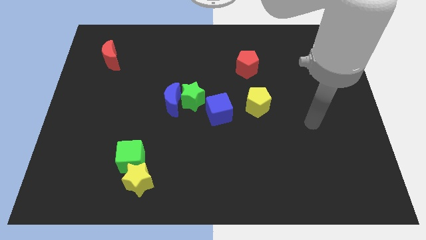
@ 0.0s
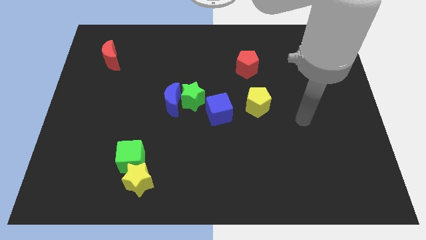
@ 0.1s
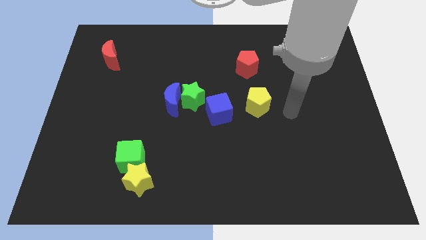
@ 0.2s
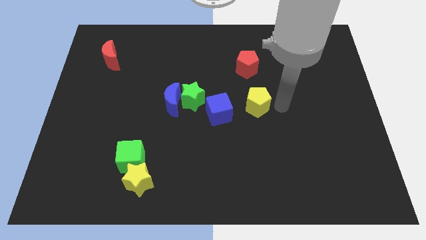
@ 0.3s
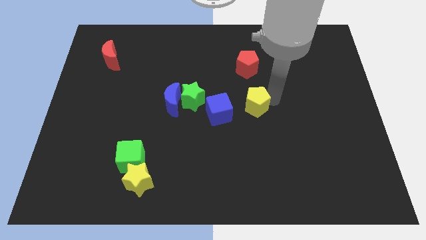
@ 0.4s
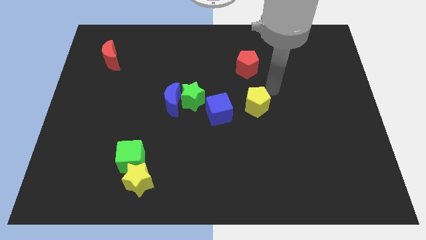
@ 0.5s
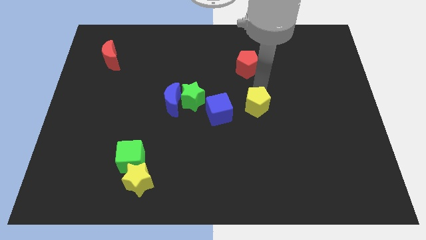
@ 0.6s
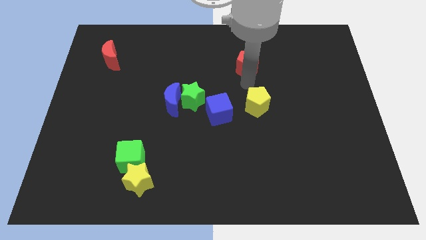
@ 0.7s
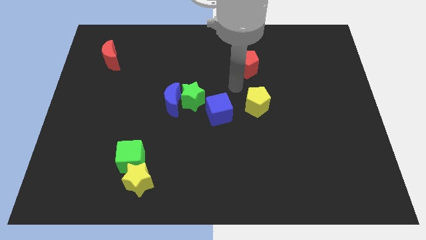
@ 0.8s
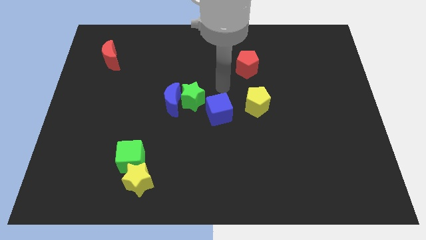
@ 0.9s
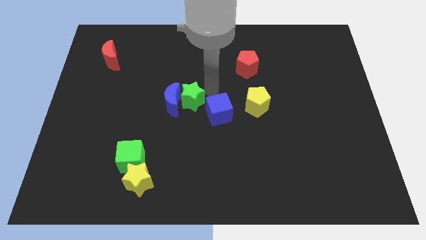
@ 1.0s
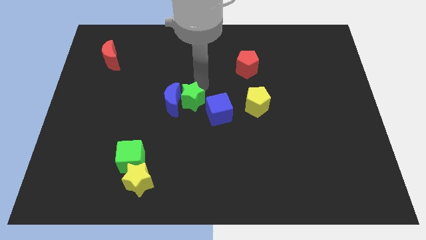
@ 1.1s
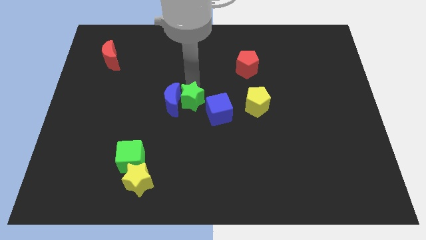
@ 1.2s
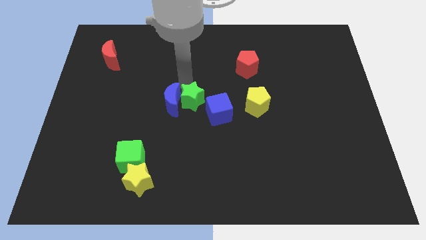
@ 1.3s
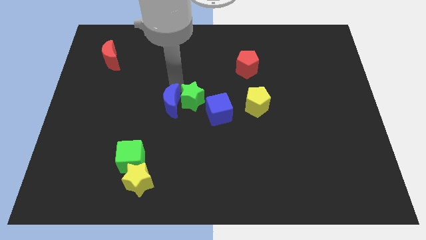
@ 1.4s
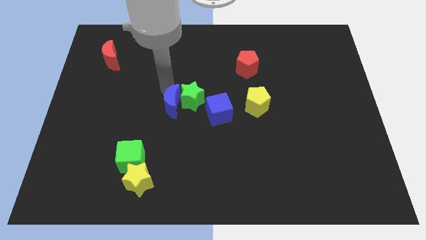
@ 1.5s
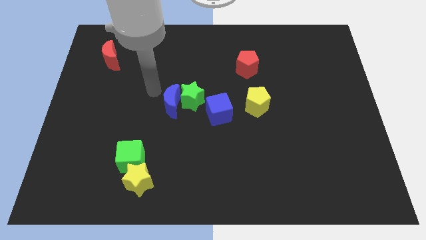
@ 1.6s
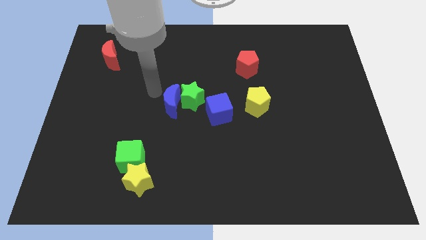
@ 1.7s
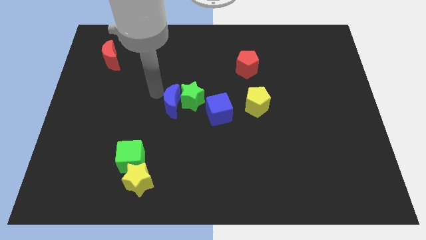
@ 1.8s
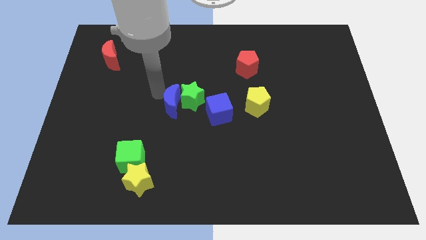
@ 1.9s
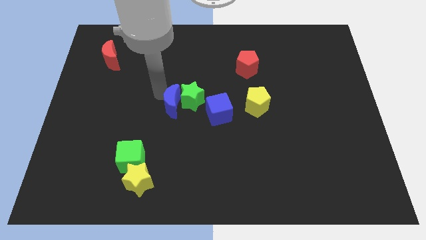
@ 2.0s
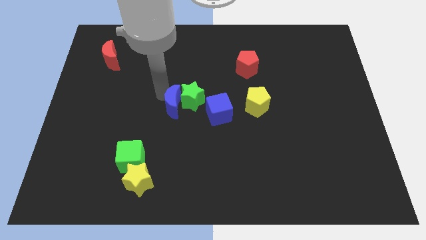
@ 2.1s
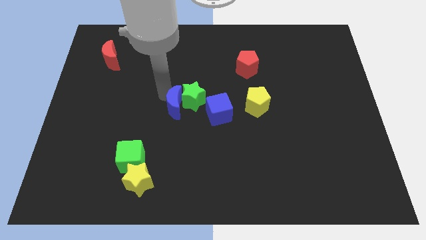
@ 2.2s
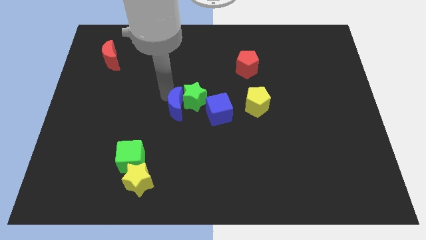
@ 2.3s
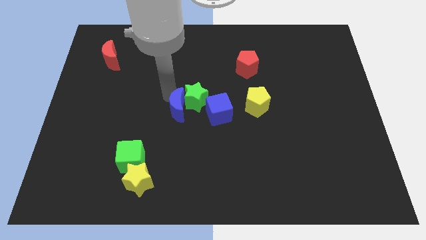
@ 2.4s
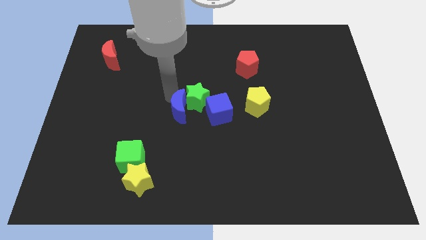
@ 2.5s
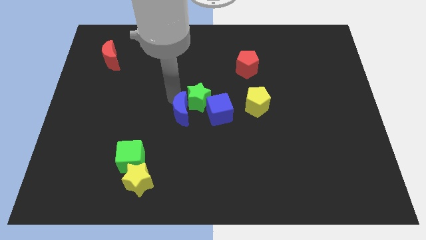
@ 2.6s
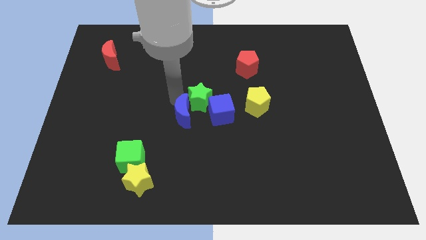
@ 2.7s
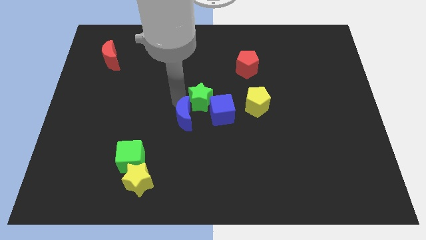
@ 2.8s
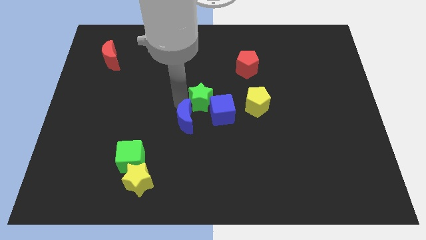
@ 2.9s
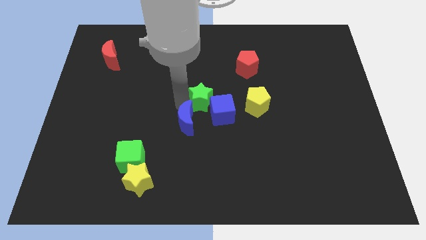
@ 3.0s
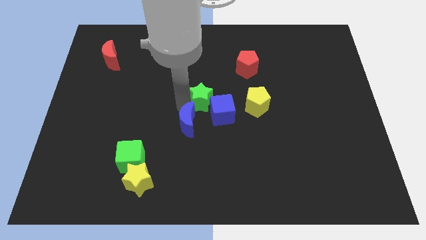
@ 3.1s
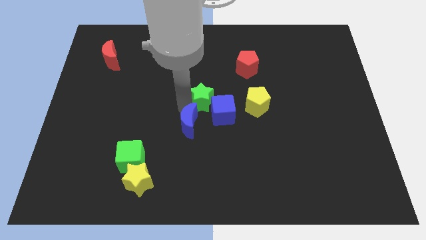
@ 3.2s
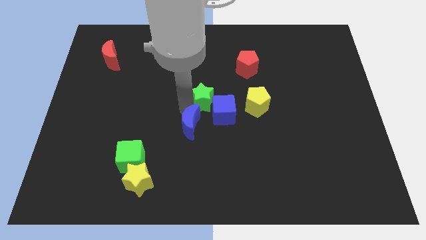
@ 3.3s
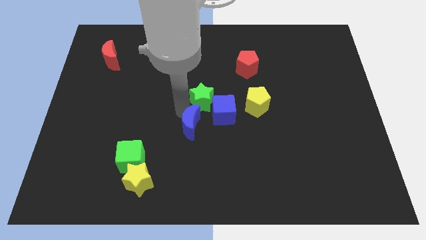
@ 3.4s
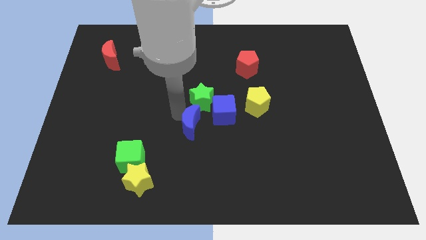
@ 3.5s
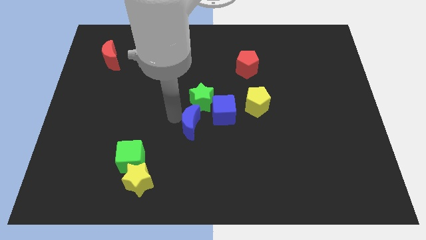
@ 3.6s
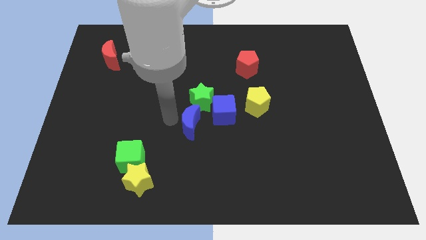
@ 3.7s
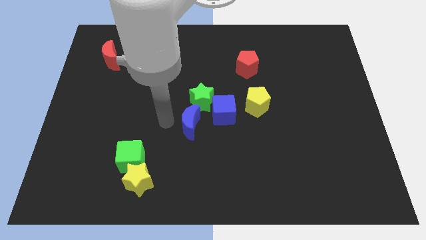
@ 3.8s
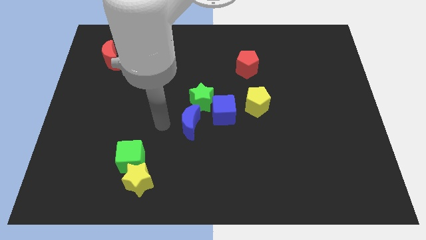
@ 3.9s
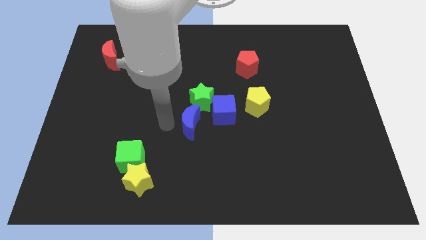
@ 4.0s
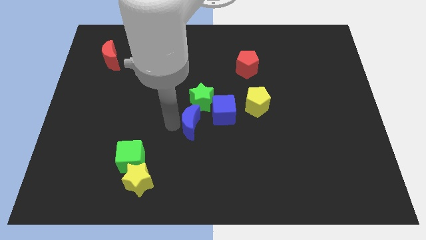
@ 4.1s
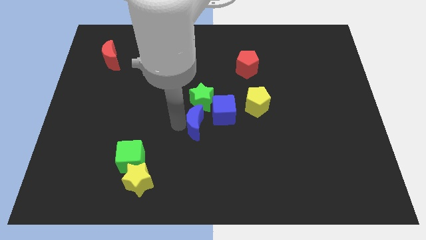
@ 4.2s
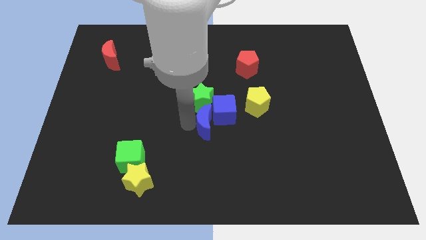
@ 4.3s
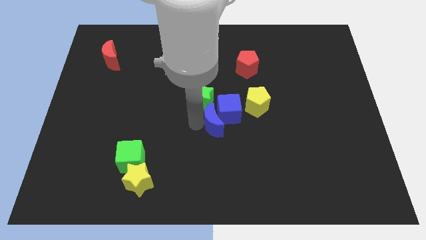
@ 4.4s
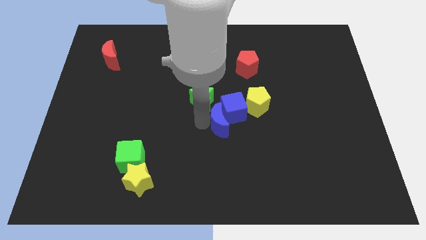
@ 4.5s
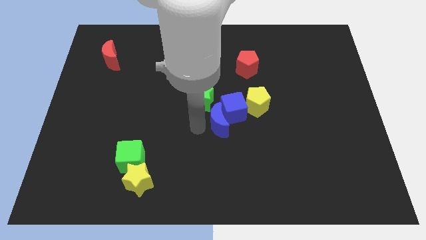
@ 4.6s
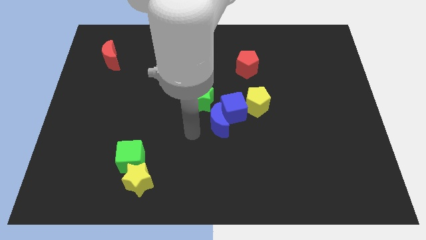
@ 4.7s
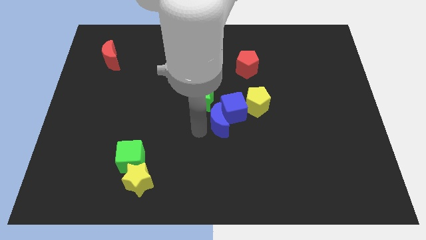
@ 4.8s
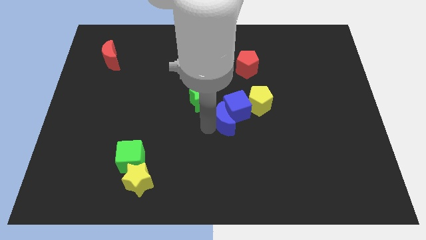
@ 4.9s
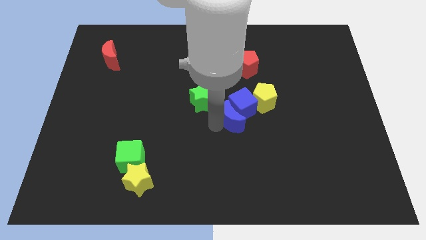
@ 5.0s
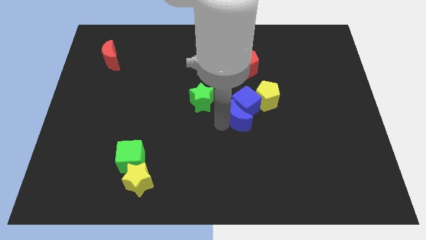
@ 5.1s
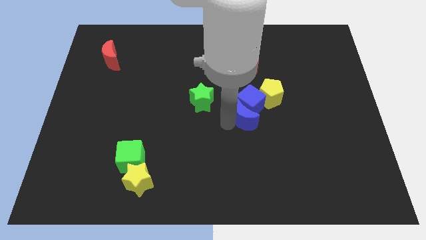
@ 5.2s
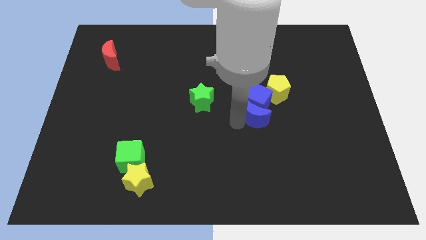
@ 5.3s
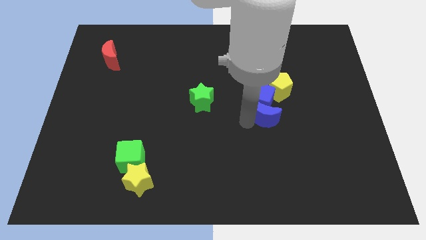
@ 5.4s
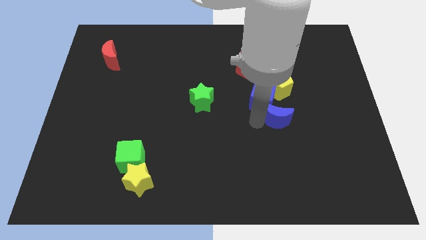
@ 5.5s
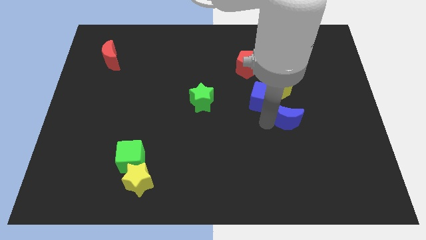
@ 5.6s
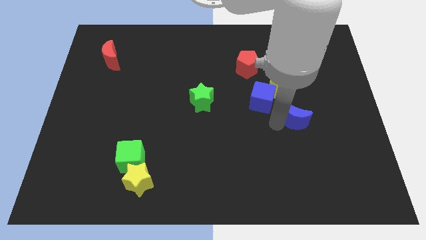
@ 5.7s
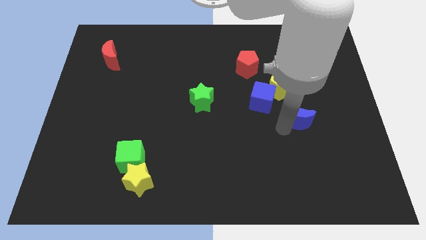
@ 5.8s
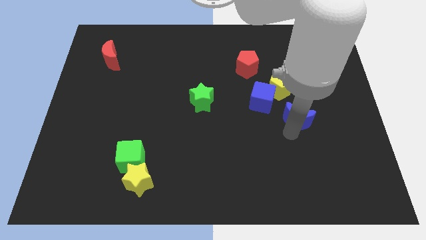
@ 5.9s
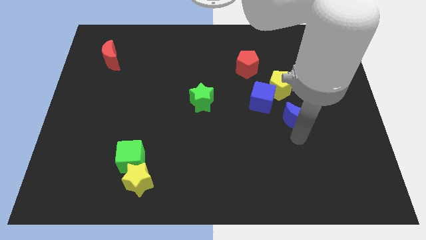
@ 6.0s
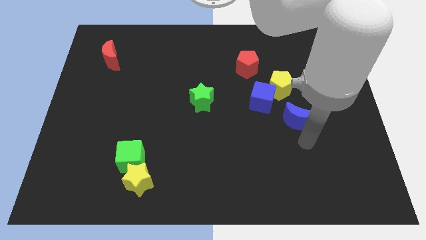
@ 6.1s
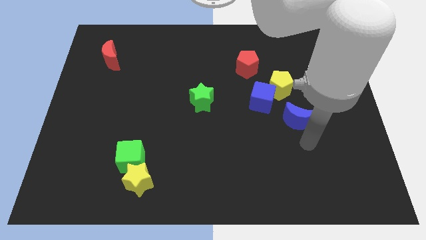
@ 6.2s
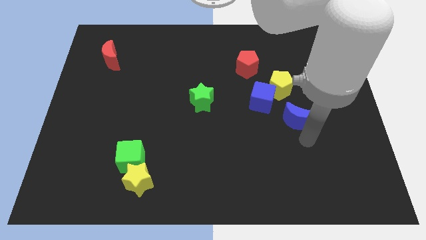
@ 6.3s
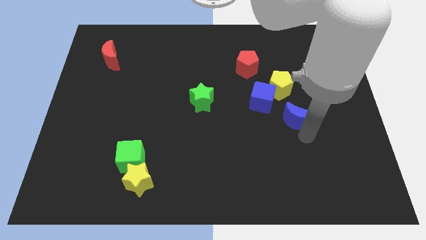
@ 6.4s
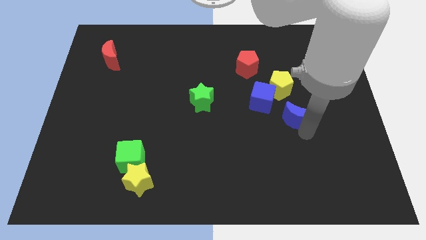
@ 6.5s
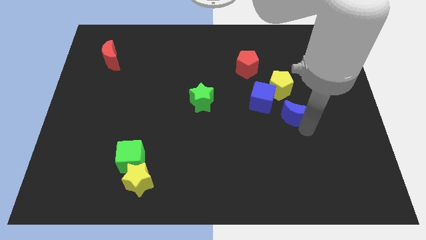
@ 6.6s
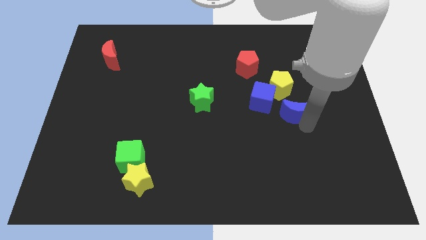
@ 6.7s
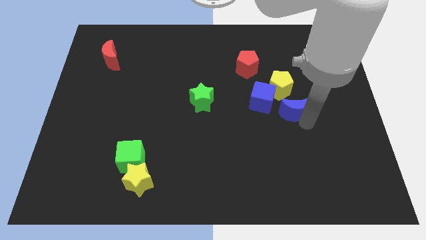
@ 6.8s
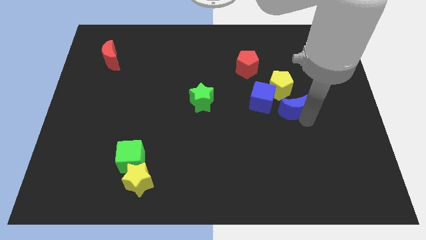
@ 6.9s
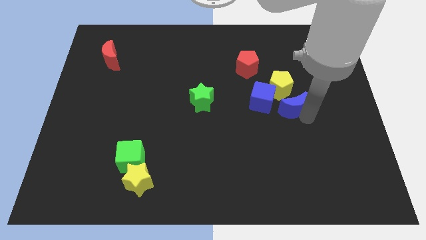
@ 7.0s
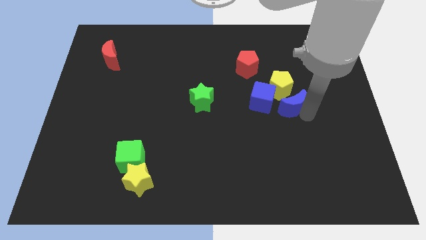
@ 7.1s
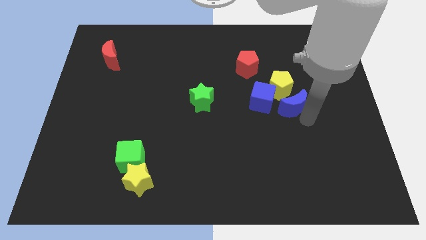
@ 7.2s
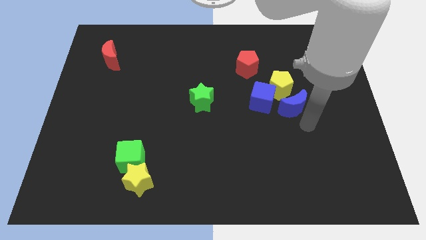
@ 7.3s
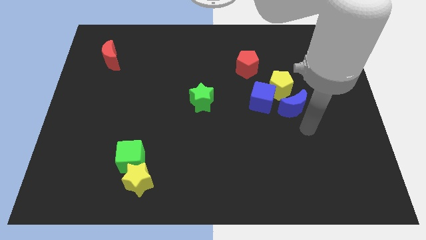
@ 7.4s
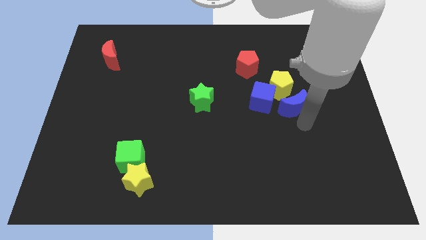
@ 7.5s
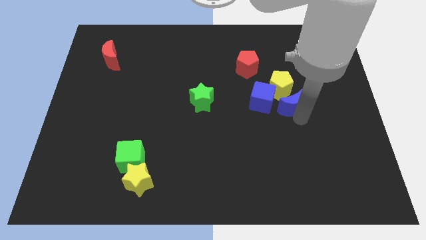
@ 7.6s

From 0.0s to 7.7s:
push the blue moon close to the yellow pentagon

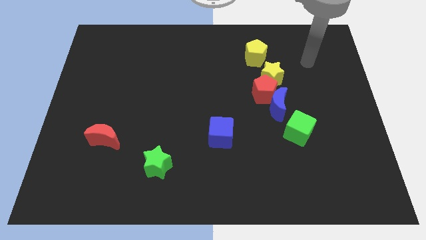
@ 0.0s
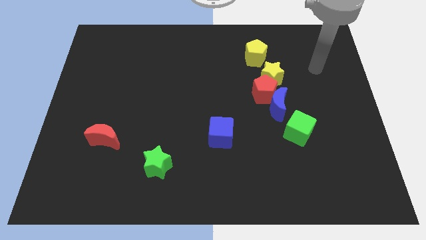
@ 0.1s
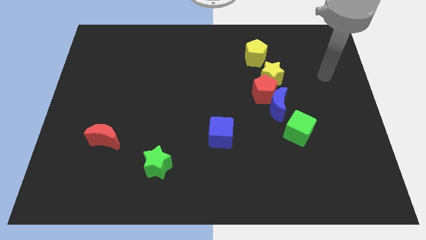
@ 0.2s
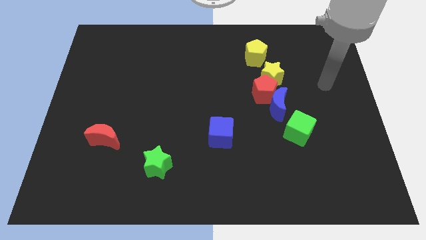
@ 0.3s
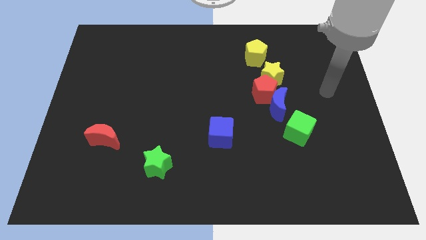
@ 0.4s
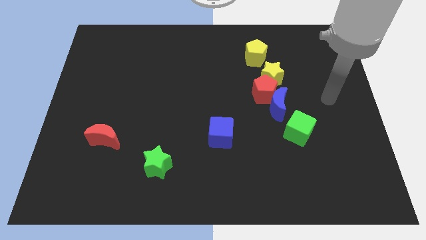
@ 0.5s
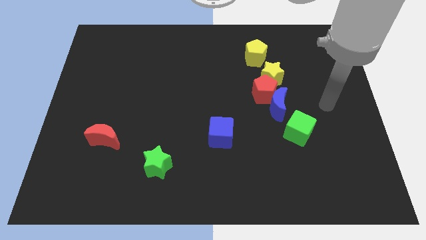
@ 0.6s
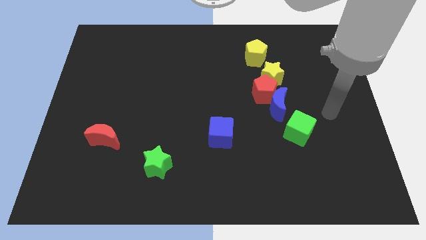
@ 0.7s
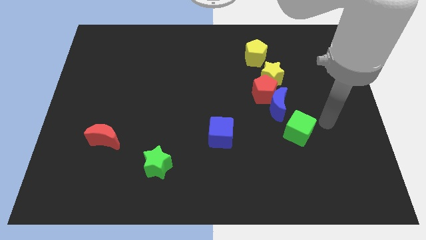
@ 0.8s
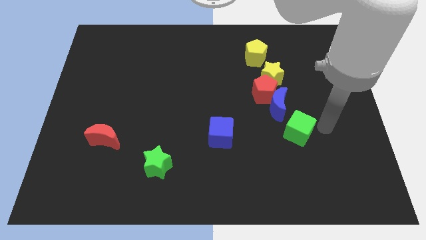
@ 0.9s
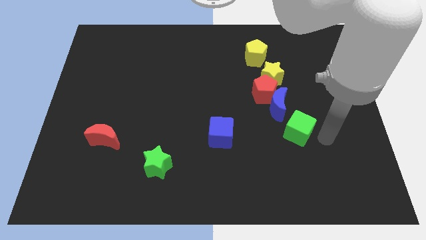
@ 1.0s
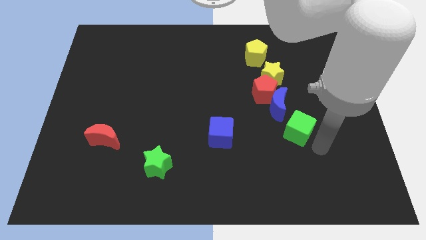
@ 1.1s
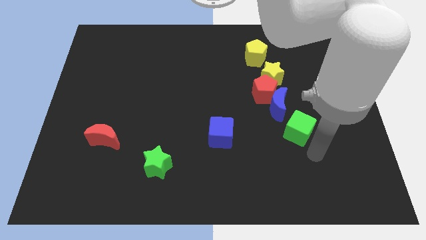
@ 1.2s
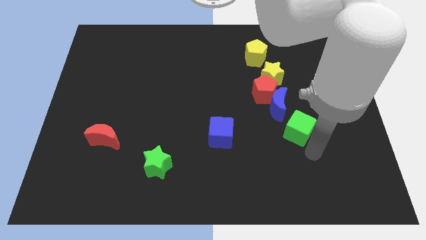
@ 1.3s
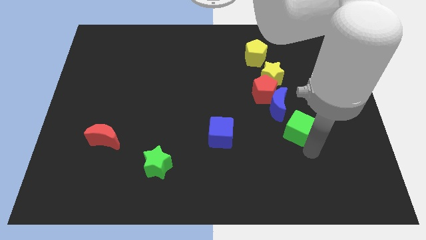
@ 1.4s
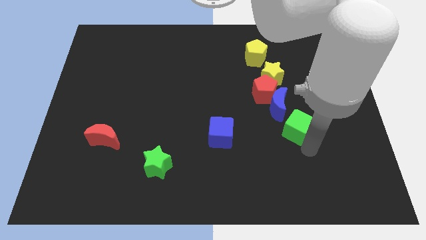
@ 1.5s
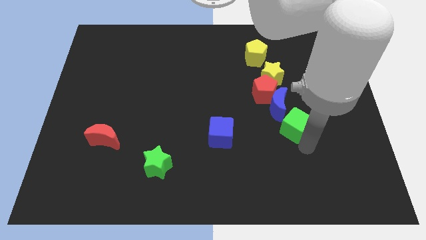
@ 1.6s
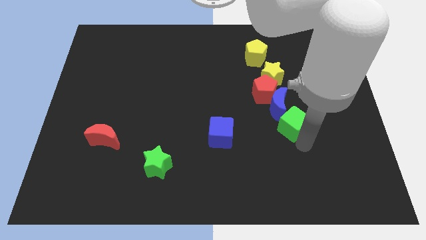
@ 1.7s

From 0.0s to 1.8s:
push the green cube next to the blue moon
